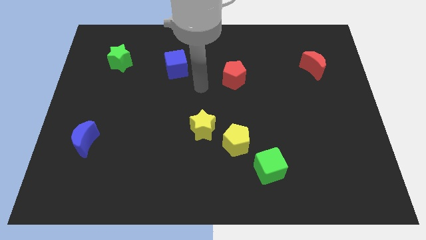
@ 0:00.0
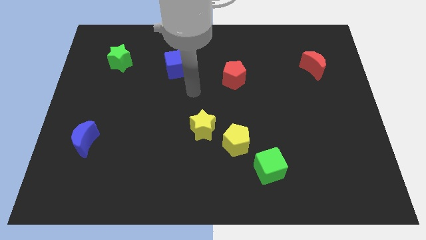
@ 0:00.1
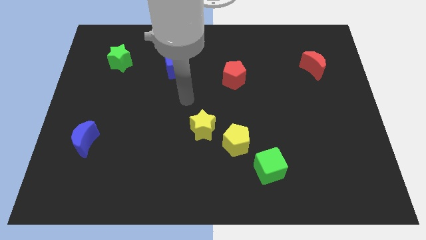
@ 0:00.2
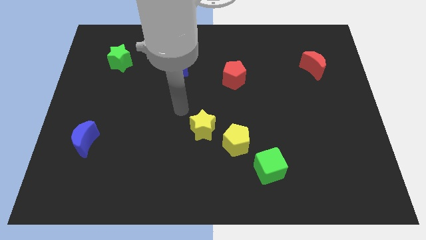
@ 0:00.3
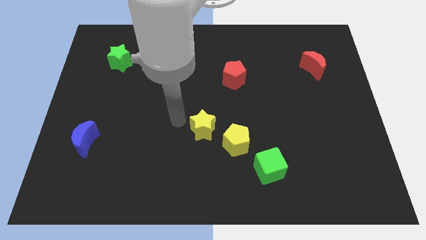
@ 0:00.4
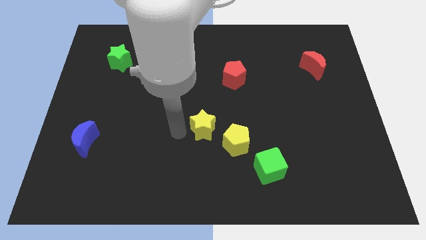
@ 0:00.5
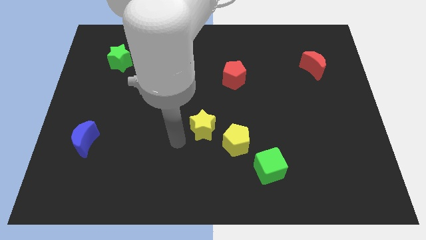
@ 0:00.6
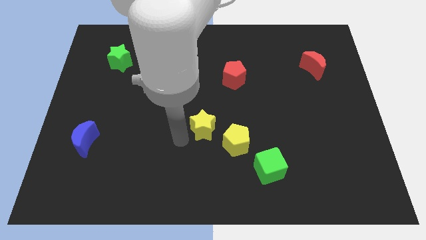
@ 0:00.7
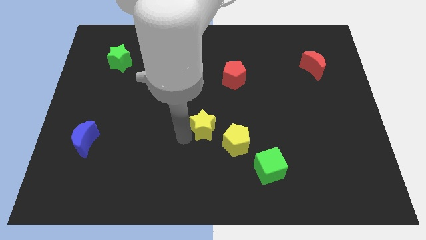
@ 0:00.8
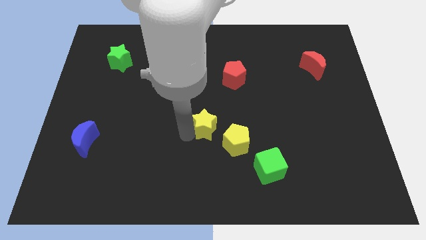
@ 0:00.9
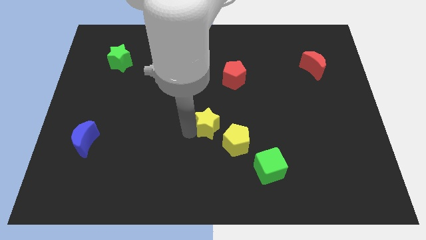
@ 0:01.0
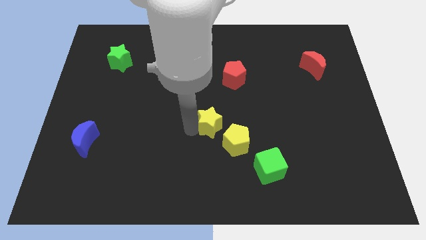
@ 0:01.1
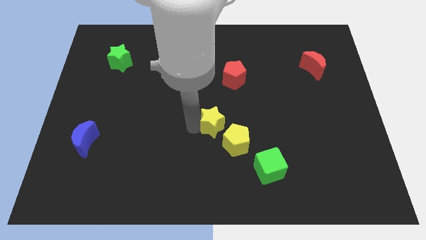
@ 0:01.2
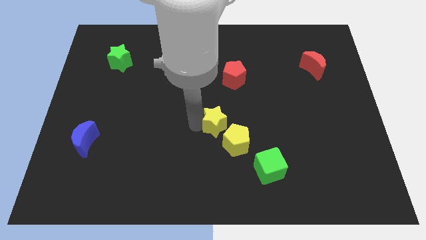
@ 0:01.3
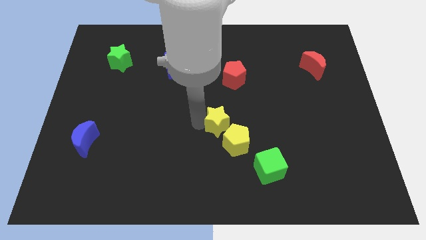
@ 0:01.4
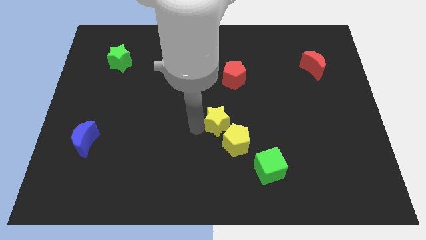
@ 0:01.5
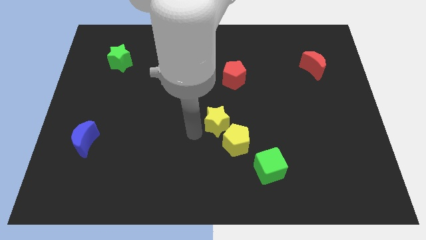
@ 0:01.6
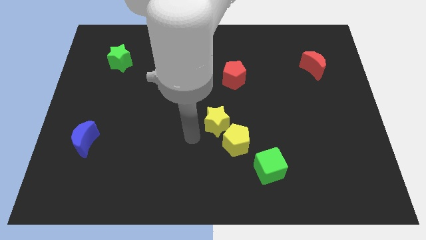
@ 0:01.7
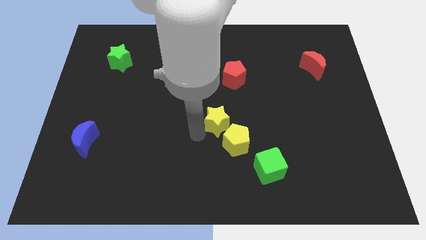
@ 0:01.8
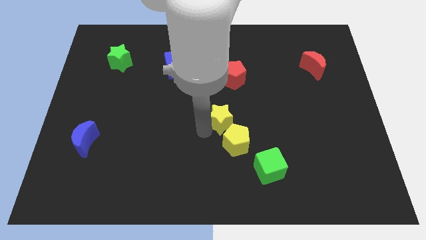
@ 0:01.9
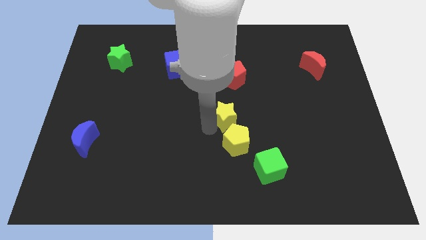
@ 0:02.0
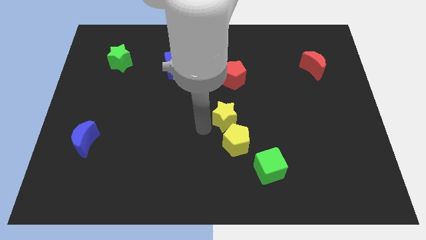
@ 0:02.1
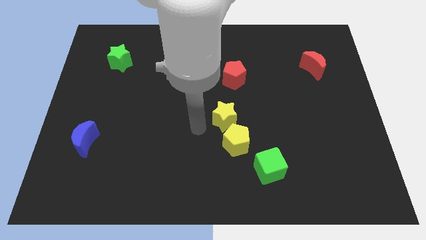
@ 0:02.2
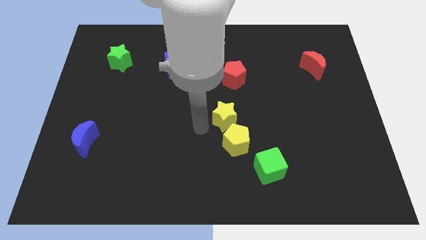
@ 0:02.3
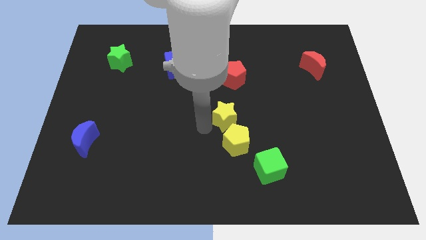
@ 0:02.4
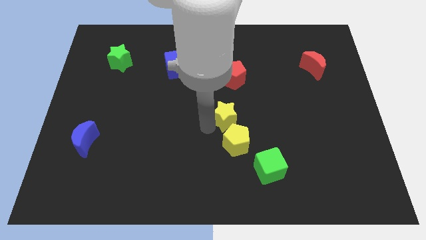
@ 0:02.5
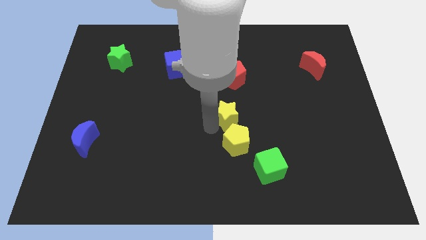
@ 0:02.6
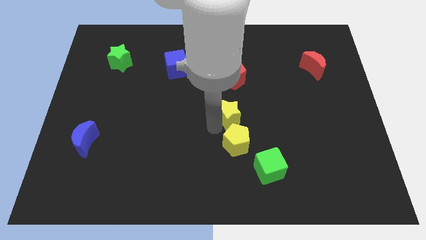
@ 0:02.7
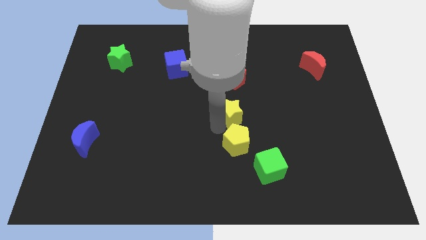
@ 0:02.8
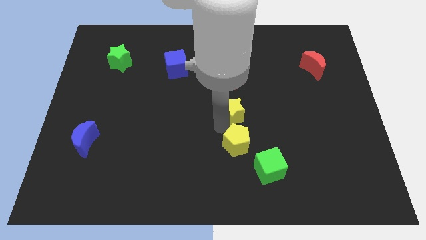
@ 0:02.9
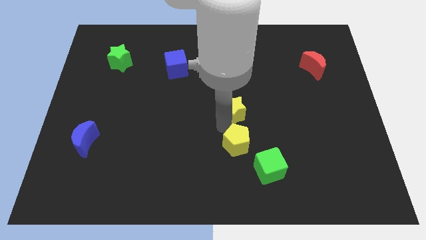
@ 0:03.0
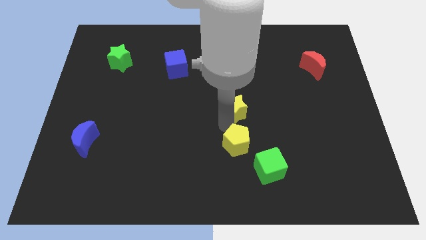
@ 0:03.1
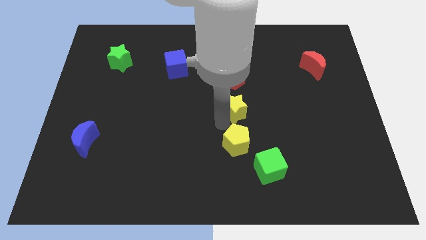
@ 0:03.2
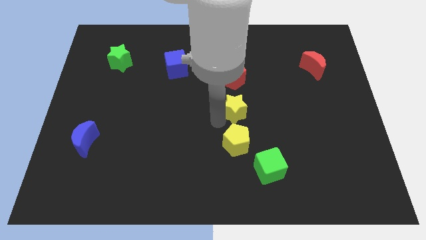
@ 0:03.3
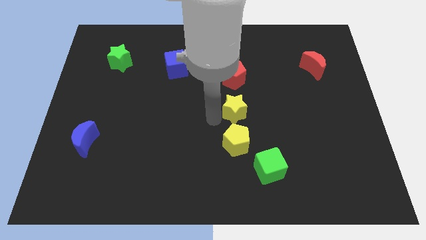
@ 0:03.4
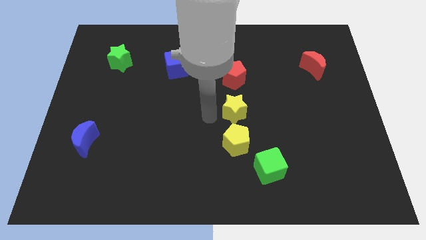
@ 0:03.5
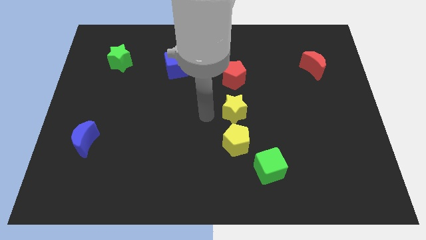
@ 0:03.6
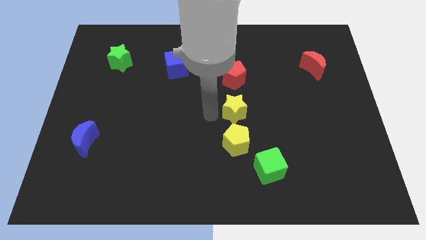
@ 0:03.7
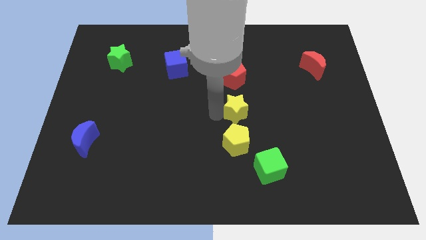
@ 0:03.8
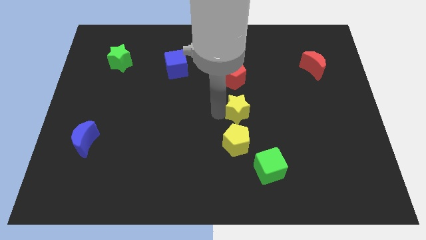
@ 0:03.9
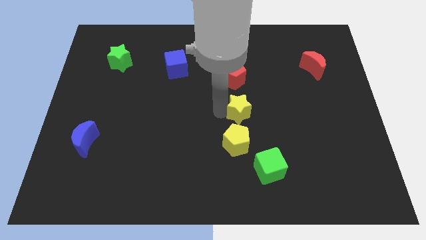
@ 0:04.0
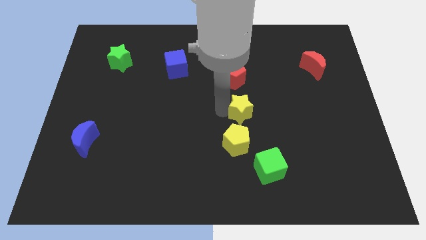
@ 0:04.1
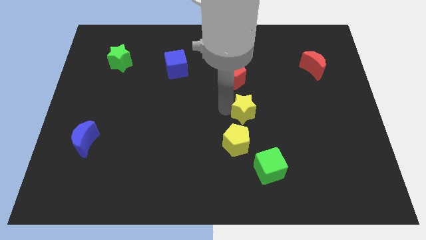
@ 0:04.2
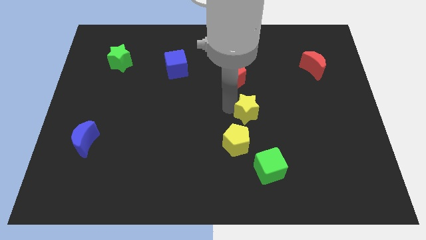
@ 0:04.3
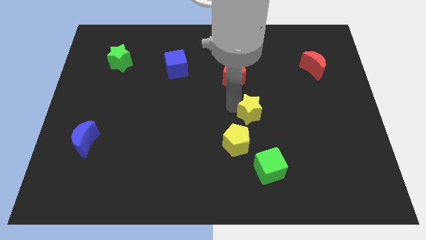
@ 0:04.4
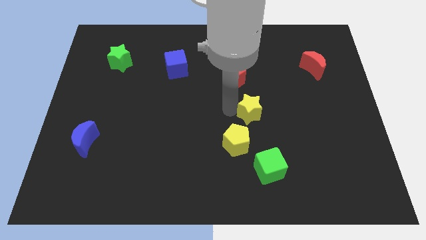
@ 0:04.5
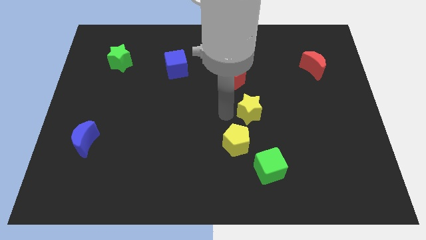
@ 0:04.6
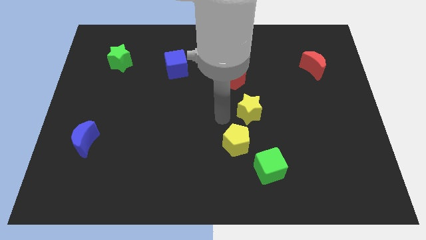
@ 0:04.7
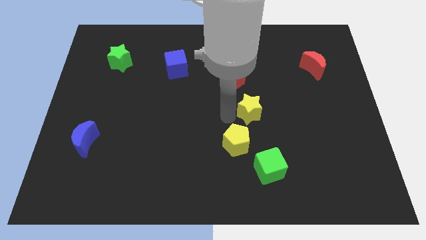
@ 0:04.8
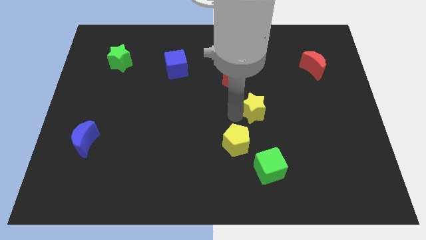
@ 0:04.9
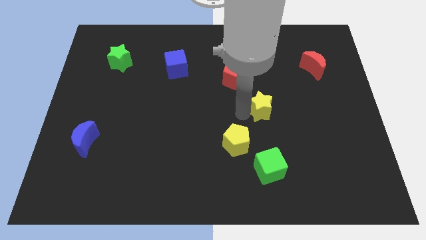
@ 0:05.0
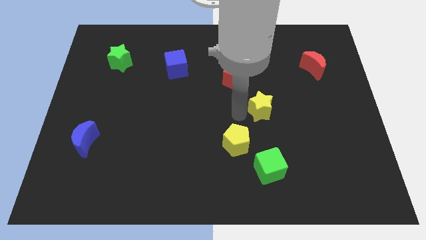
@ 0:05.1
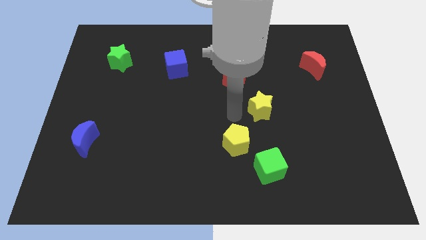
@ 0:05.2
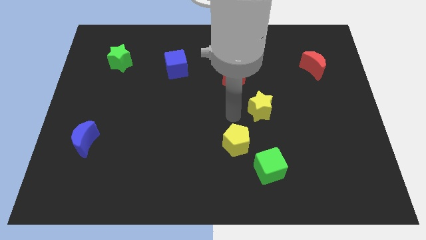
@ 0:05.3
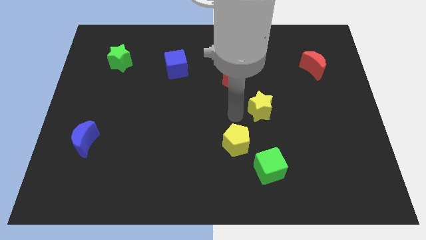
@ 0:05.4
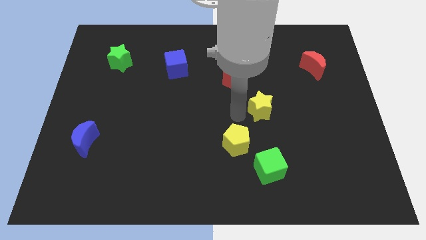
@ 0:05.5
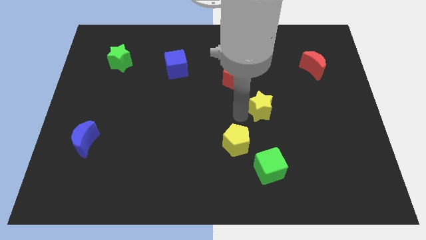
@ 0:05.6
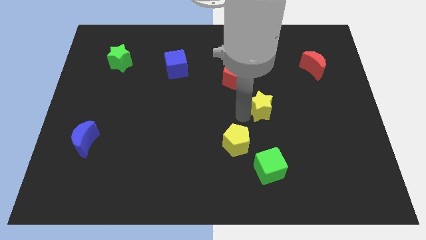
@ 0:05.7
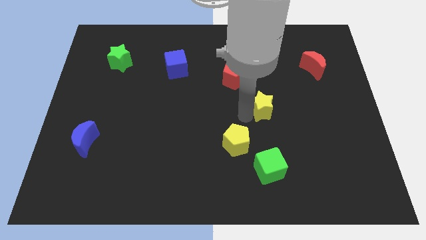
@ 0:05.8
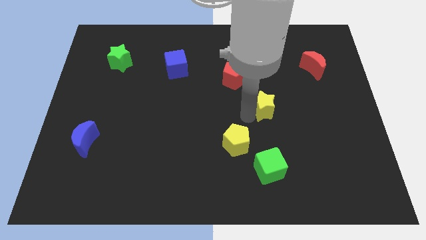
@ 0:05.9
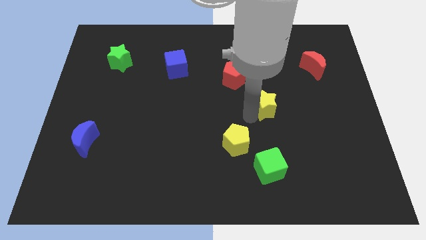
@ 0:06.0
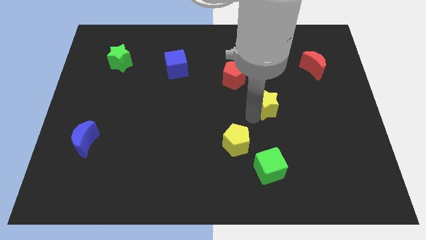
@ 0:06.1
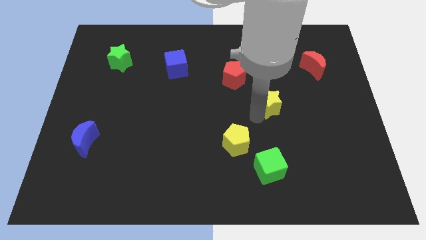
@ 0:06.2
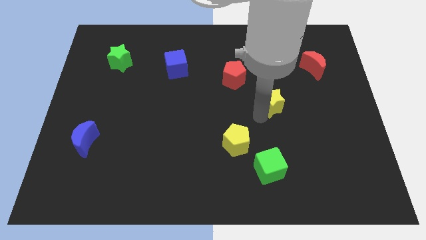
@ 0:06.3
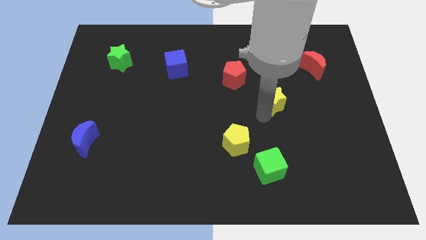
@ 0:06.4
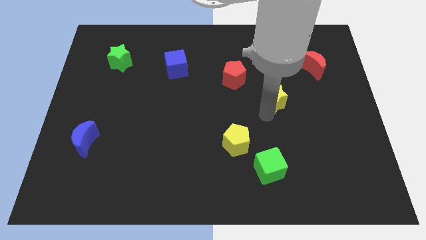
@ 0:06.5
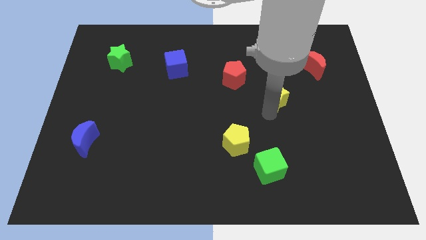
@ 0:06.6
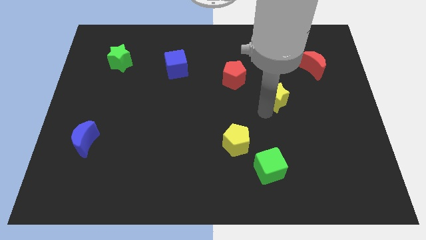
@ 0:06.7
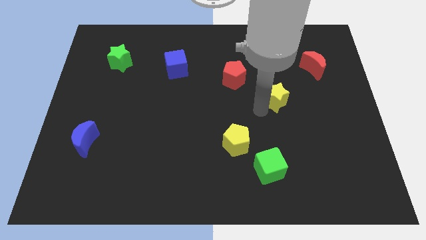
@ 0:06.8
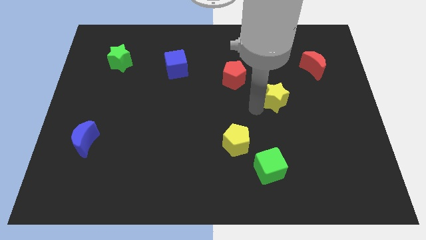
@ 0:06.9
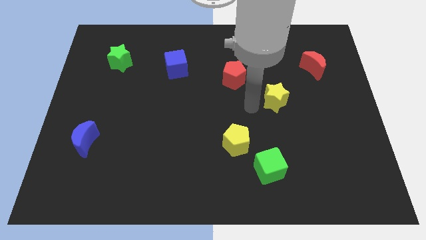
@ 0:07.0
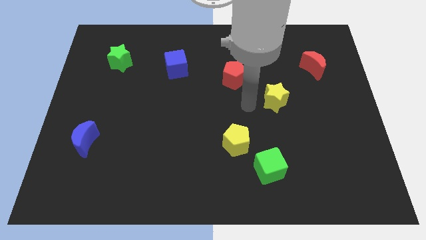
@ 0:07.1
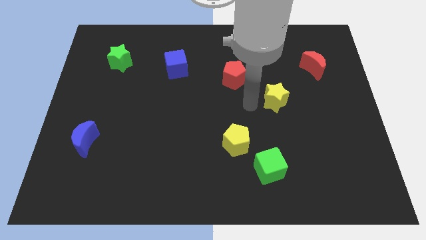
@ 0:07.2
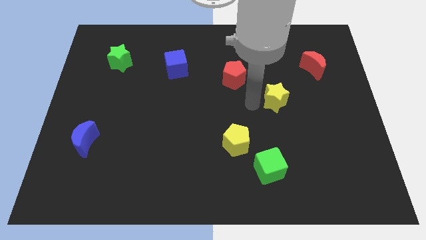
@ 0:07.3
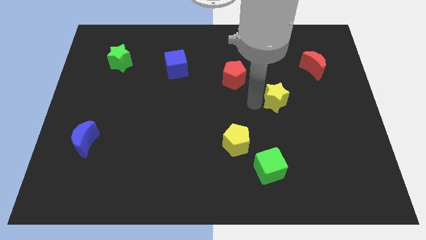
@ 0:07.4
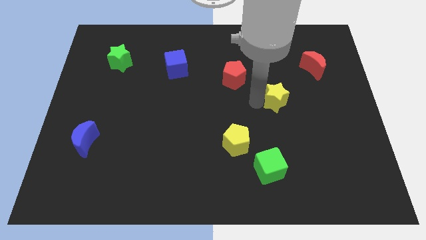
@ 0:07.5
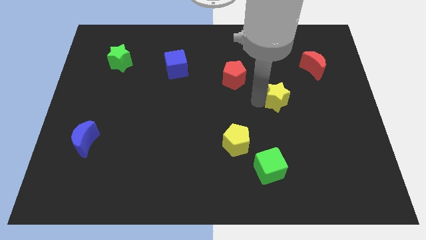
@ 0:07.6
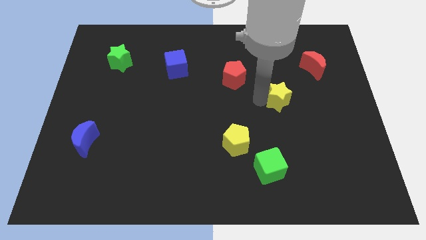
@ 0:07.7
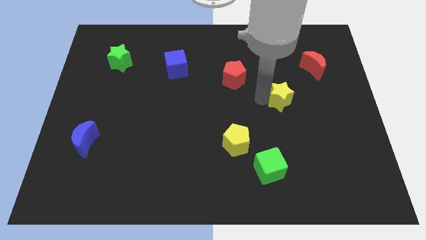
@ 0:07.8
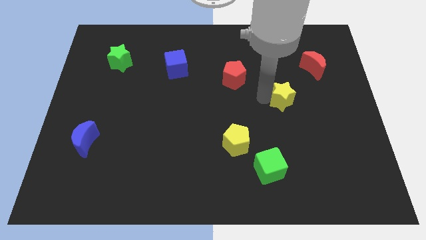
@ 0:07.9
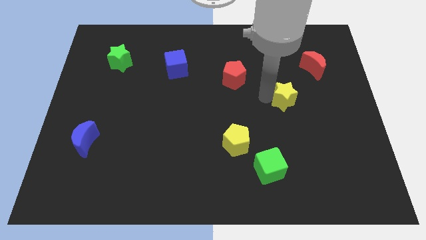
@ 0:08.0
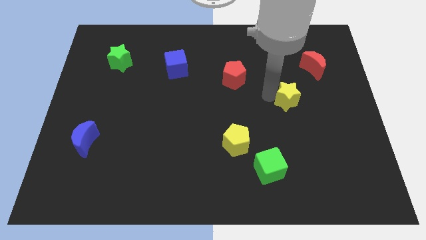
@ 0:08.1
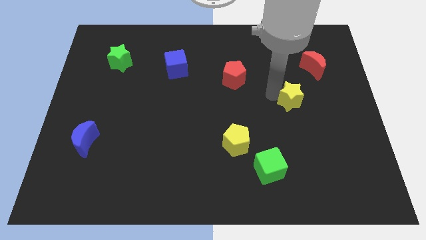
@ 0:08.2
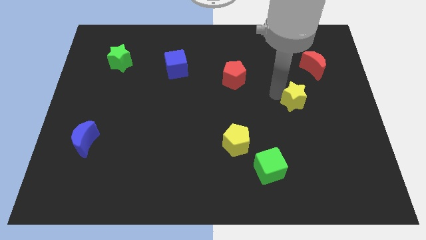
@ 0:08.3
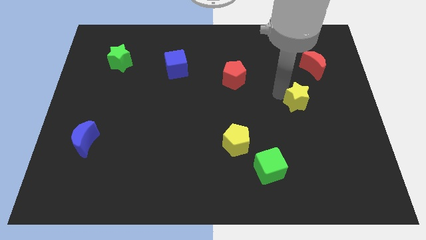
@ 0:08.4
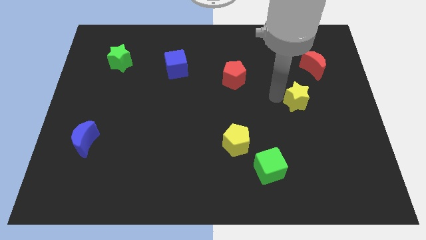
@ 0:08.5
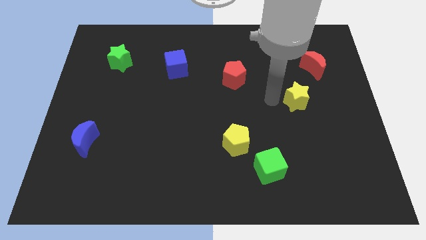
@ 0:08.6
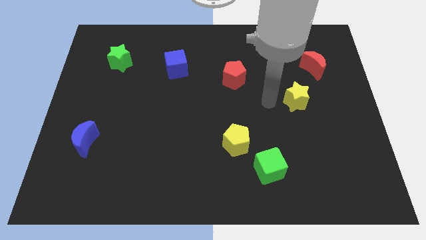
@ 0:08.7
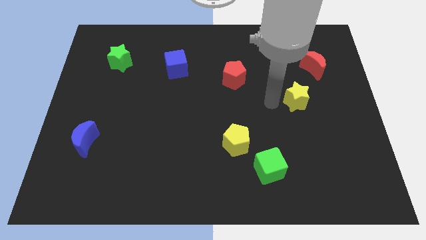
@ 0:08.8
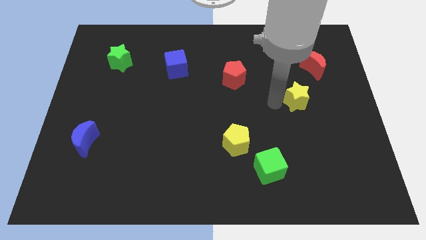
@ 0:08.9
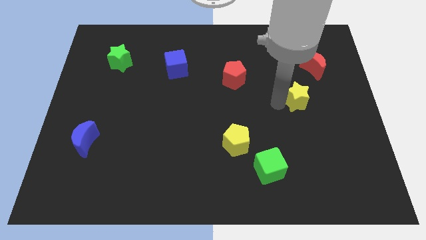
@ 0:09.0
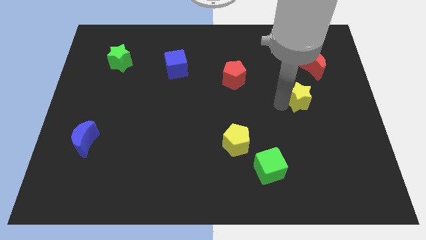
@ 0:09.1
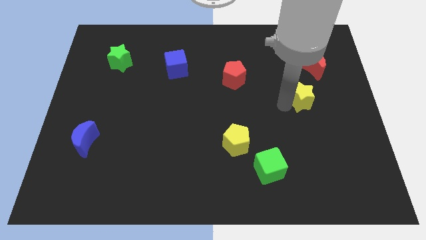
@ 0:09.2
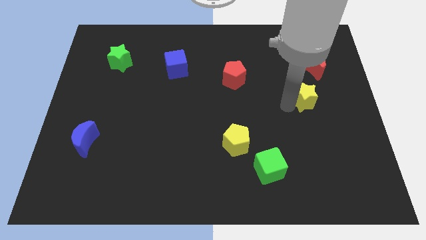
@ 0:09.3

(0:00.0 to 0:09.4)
slide the yellow star to the bottom of the red moon
